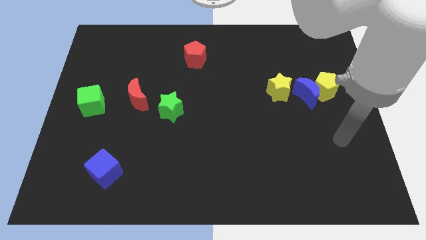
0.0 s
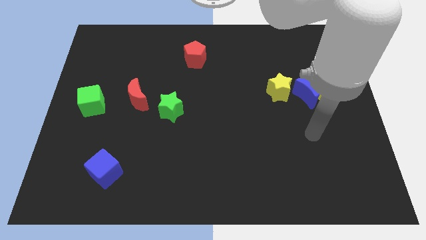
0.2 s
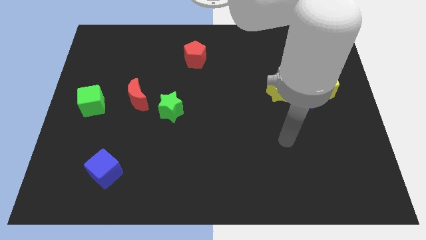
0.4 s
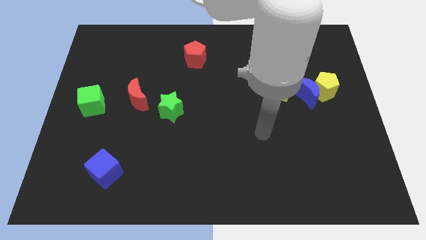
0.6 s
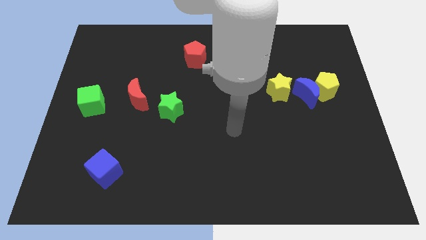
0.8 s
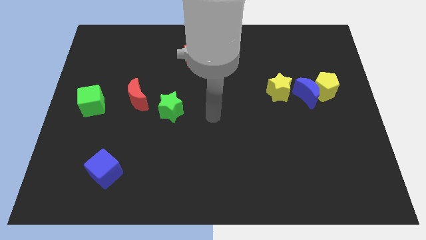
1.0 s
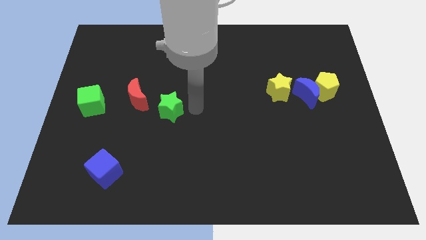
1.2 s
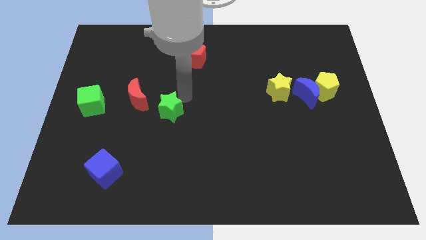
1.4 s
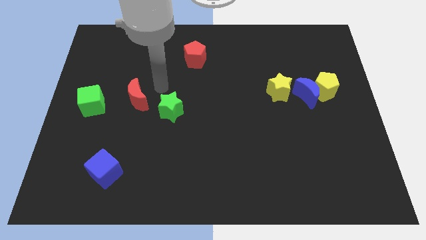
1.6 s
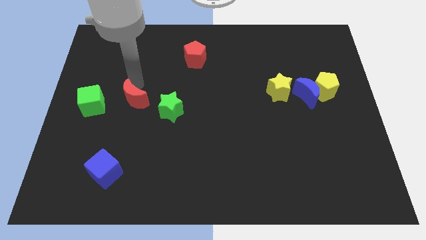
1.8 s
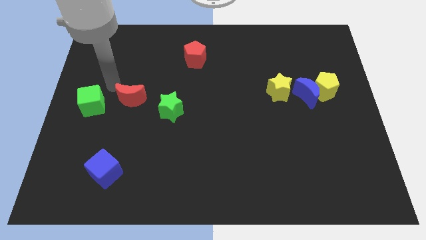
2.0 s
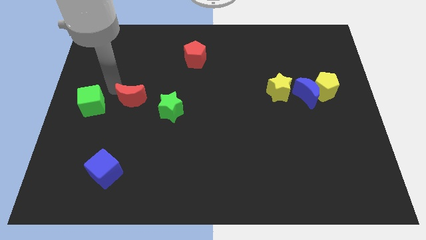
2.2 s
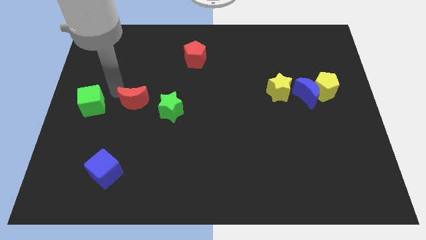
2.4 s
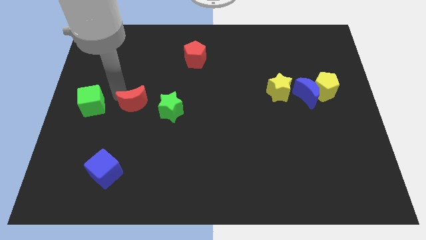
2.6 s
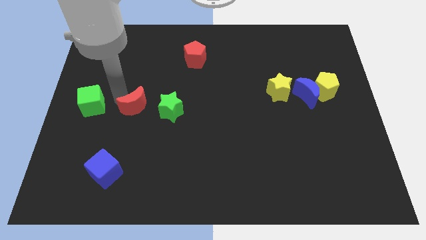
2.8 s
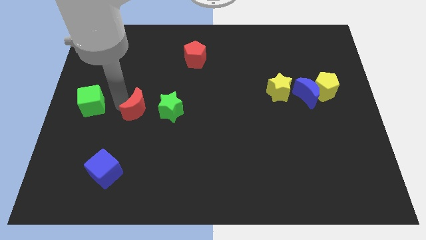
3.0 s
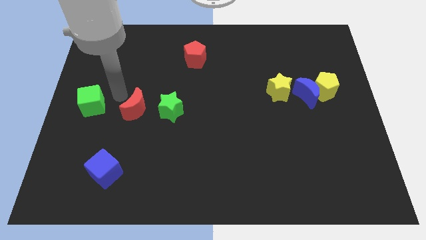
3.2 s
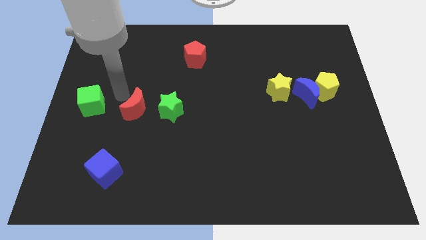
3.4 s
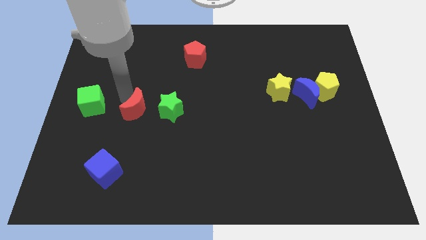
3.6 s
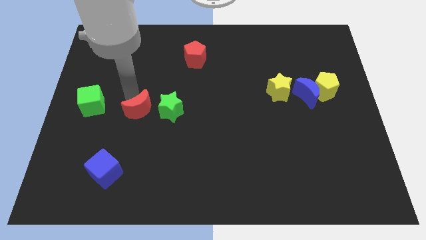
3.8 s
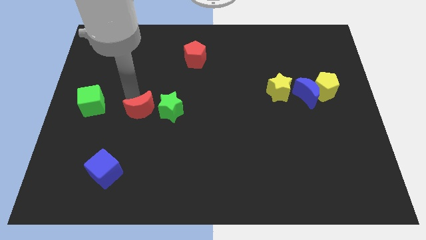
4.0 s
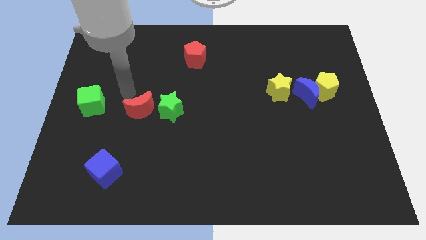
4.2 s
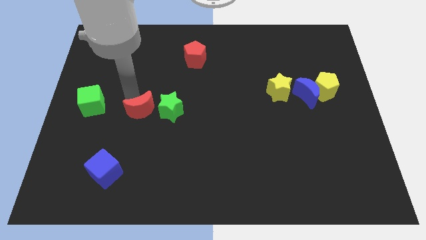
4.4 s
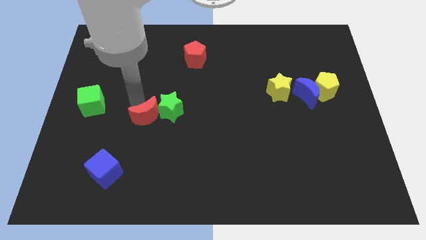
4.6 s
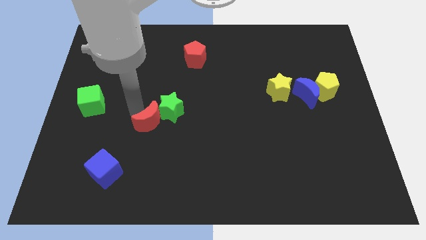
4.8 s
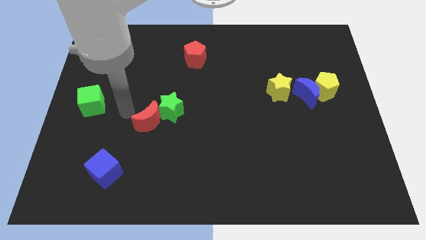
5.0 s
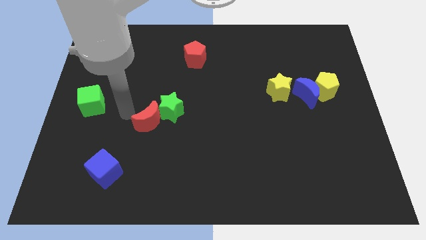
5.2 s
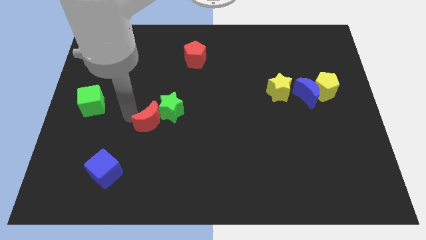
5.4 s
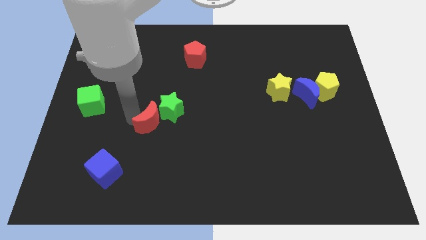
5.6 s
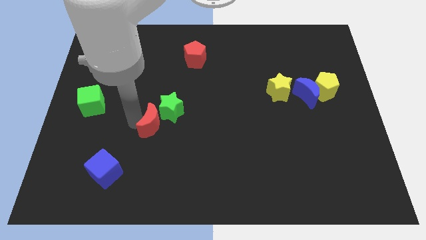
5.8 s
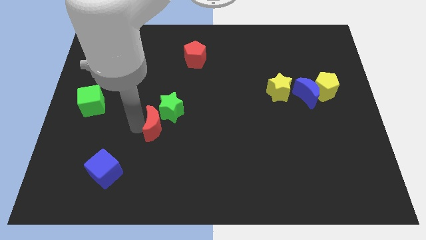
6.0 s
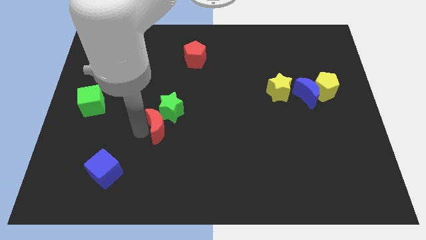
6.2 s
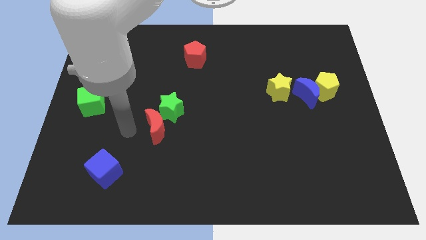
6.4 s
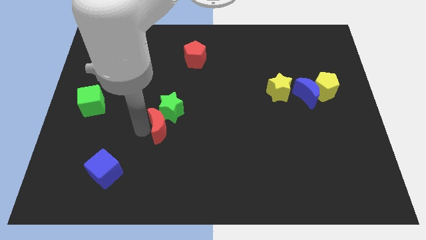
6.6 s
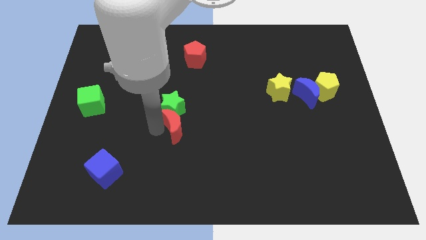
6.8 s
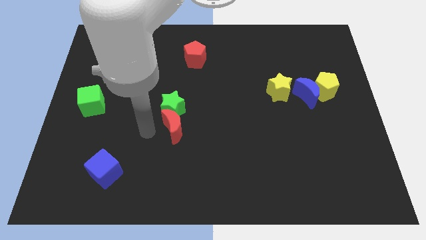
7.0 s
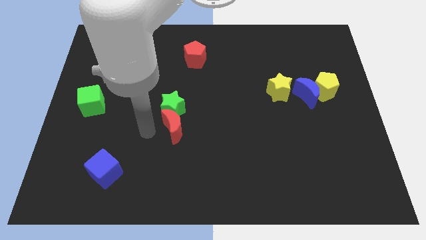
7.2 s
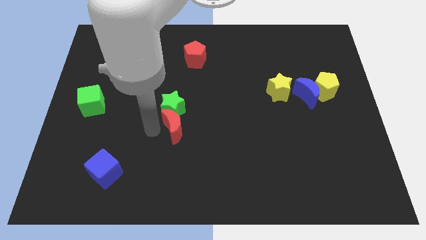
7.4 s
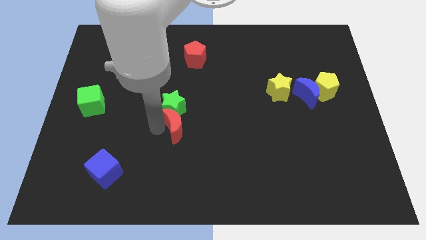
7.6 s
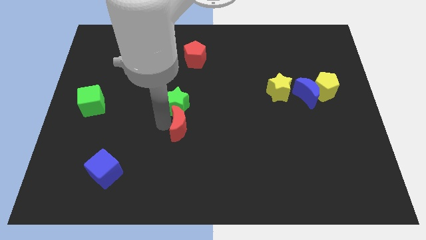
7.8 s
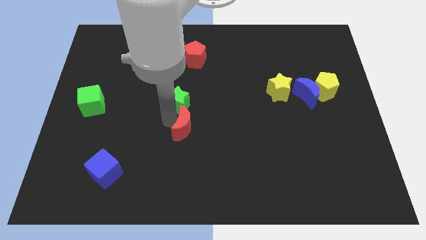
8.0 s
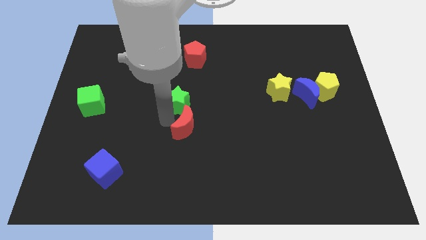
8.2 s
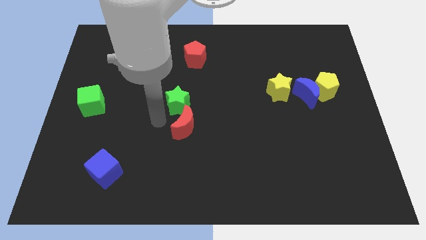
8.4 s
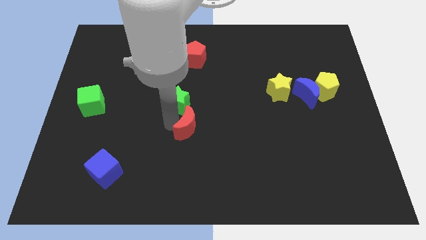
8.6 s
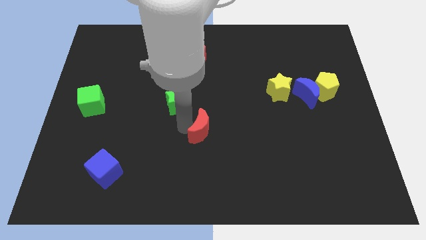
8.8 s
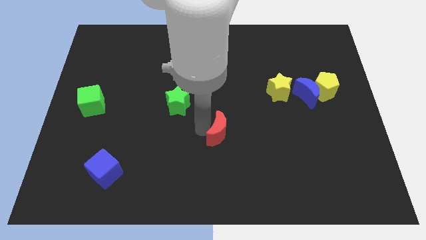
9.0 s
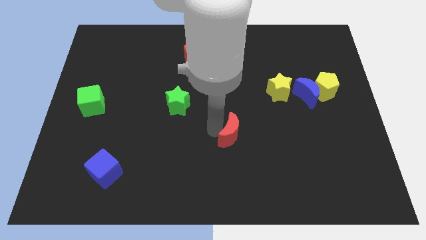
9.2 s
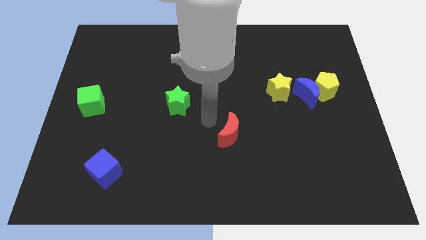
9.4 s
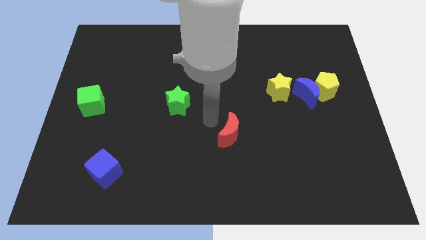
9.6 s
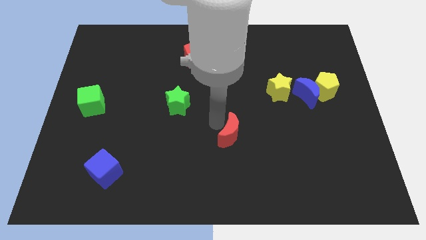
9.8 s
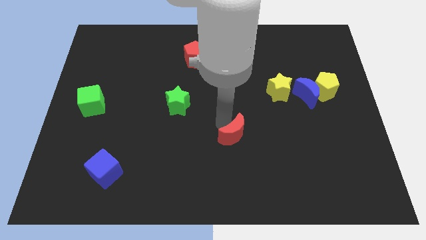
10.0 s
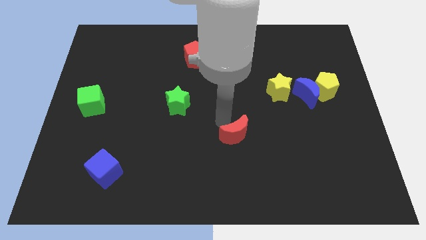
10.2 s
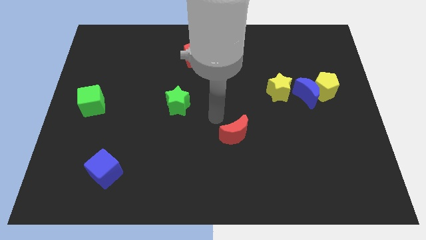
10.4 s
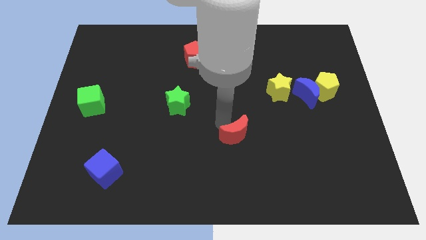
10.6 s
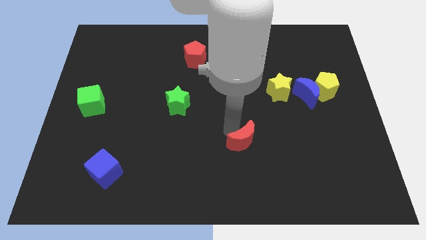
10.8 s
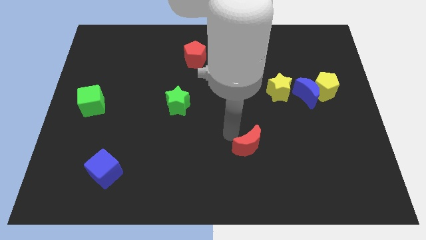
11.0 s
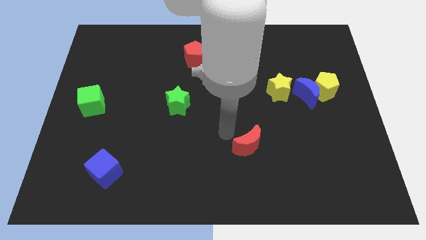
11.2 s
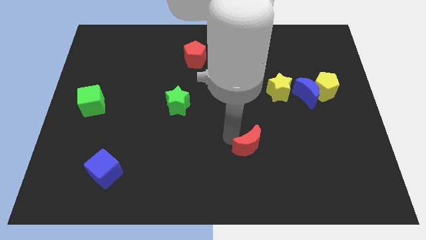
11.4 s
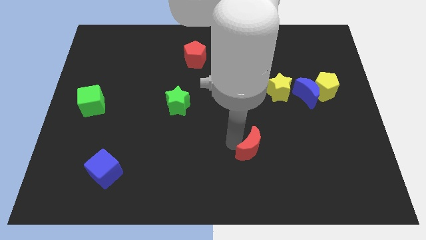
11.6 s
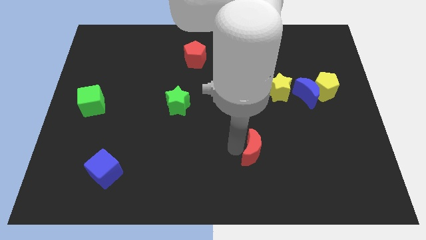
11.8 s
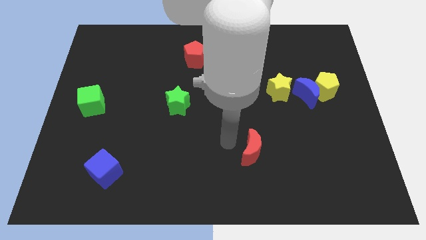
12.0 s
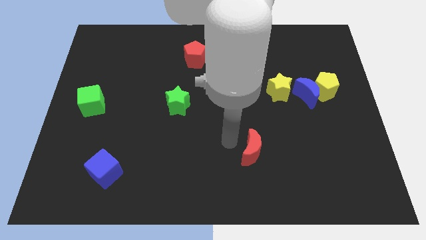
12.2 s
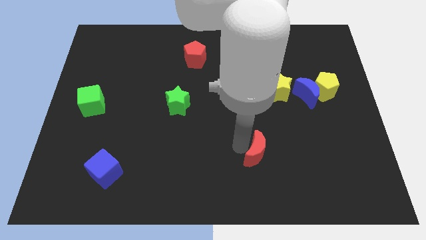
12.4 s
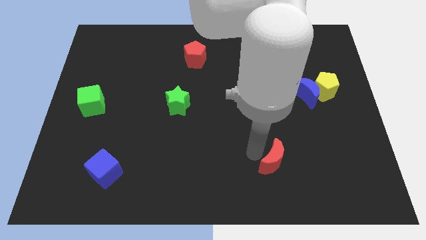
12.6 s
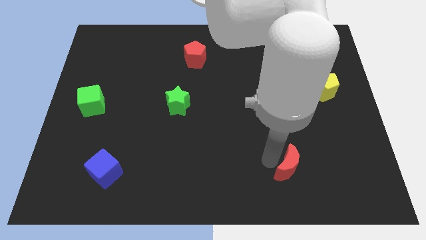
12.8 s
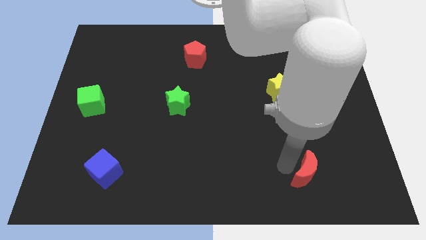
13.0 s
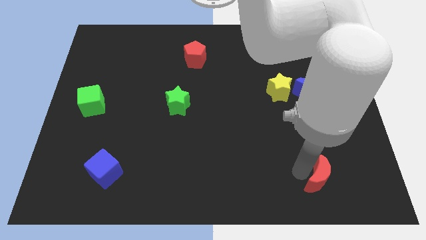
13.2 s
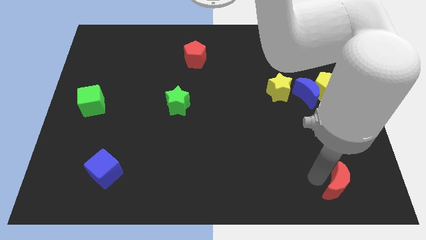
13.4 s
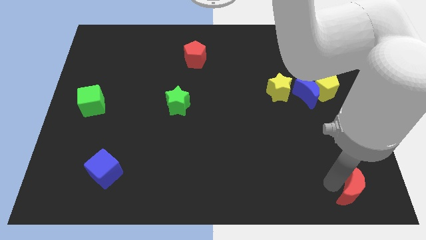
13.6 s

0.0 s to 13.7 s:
push the red moon to the bottom right corner
